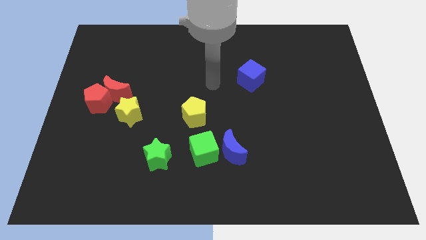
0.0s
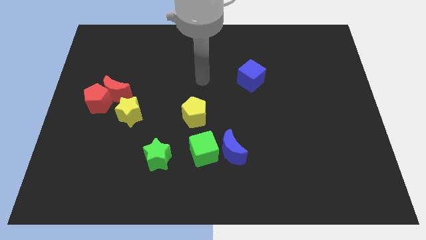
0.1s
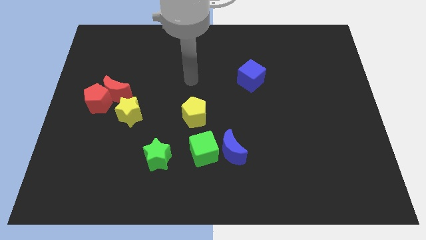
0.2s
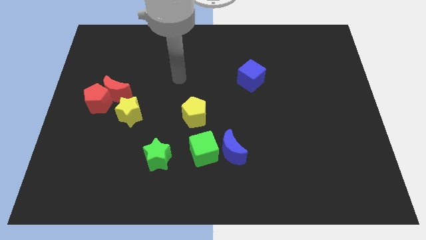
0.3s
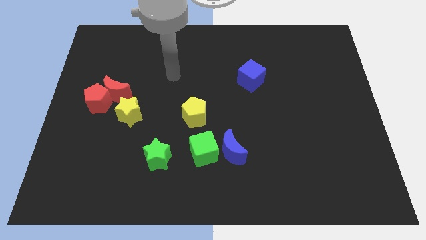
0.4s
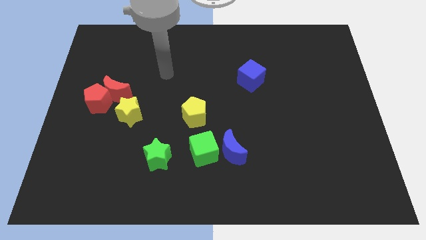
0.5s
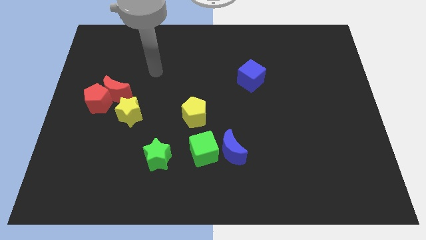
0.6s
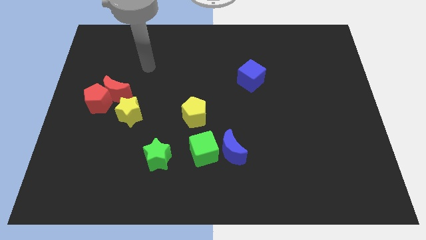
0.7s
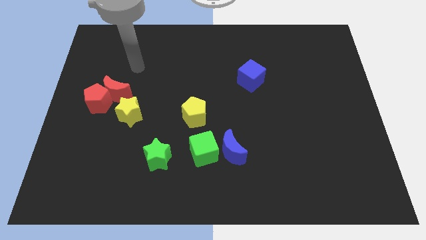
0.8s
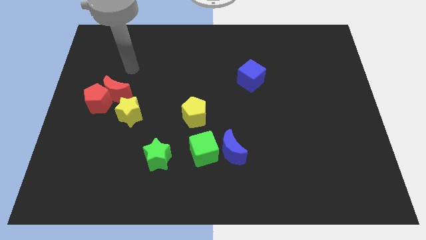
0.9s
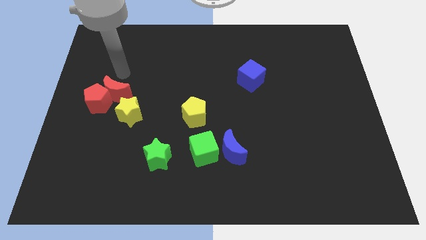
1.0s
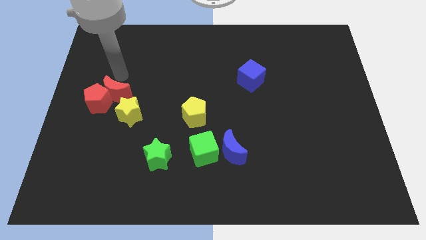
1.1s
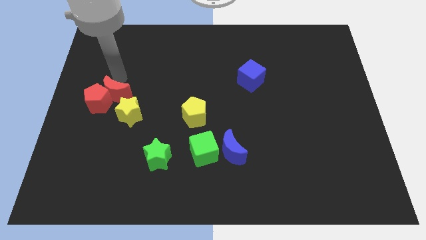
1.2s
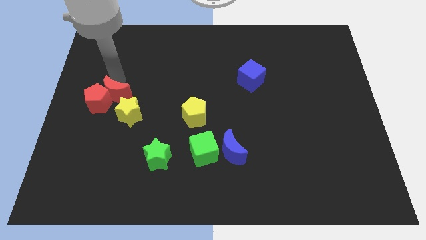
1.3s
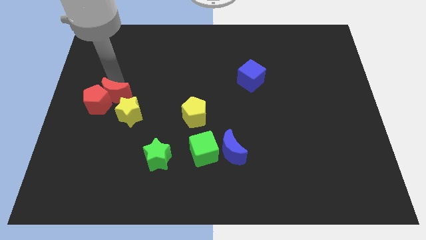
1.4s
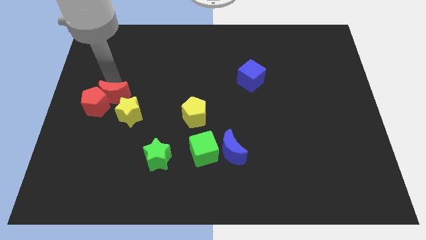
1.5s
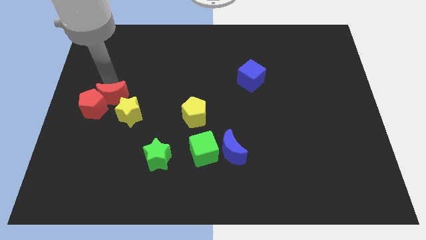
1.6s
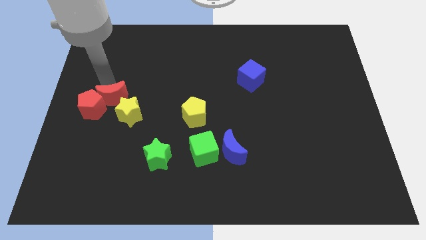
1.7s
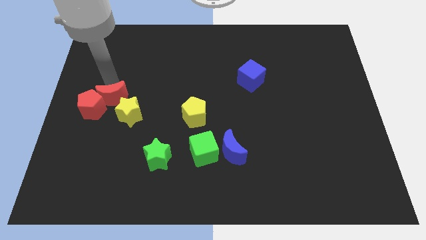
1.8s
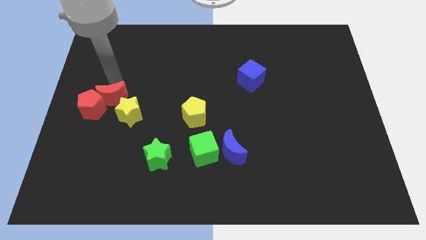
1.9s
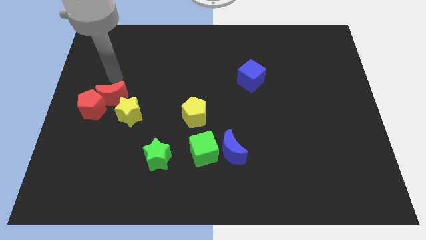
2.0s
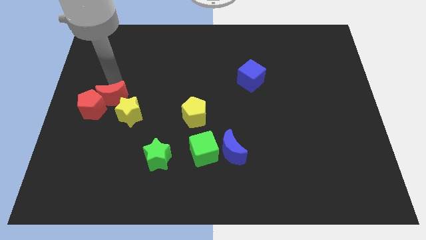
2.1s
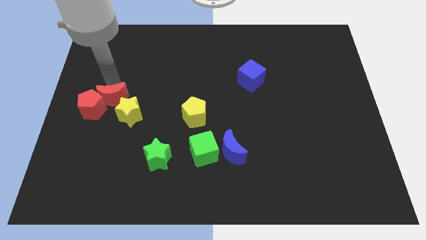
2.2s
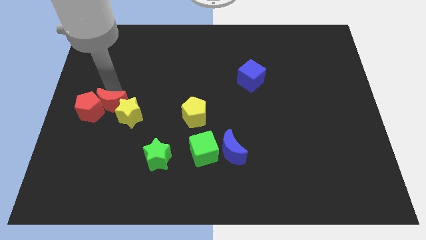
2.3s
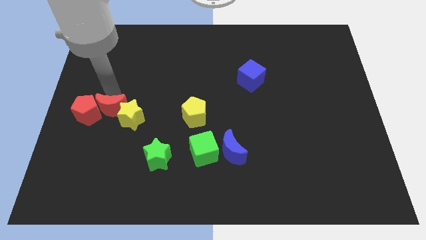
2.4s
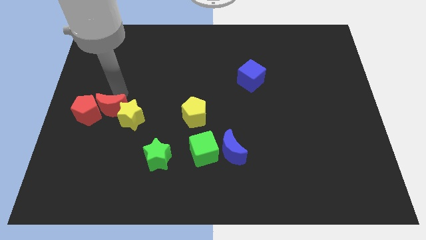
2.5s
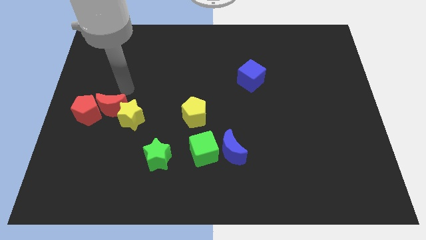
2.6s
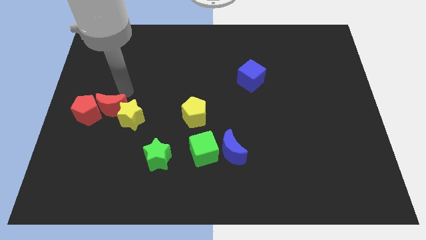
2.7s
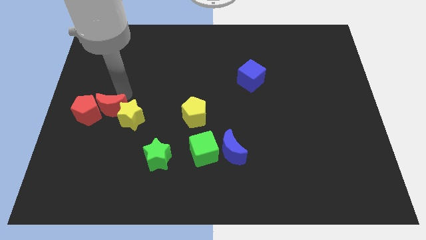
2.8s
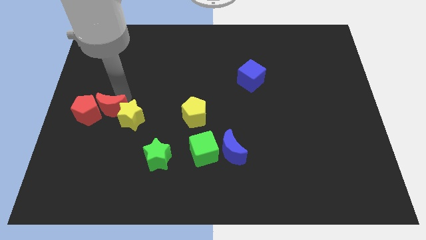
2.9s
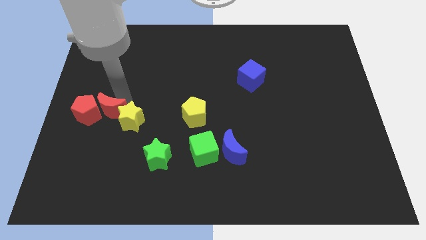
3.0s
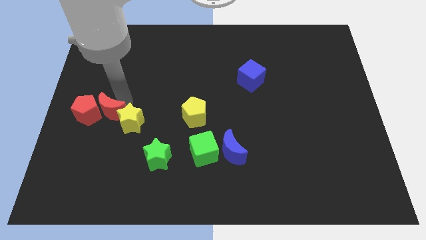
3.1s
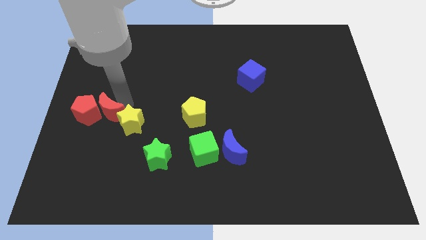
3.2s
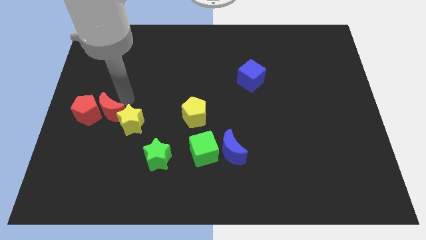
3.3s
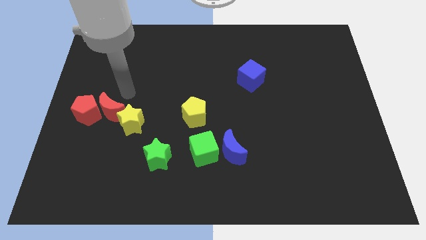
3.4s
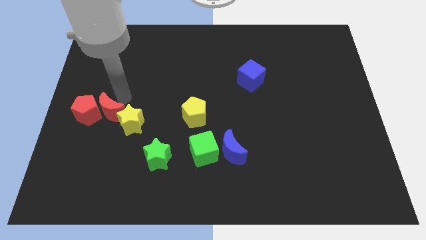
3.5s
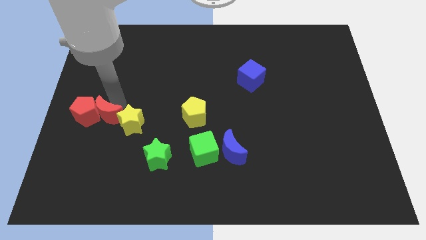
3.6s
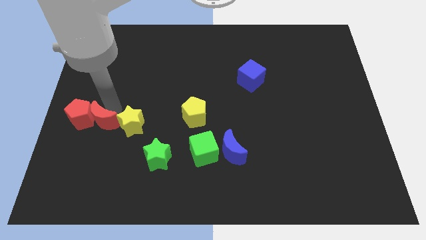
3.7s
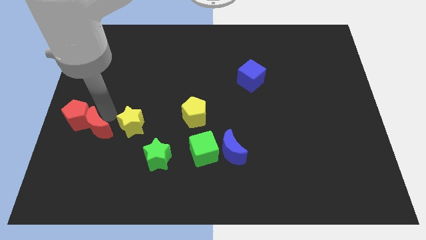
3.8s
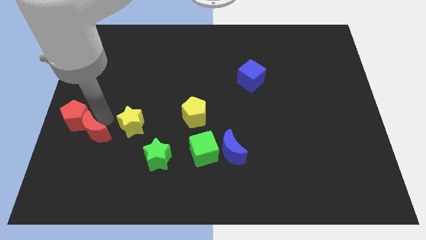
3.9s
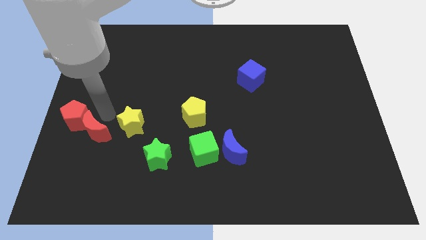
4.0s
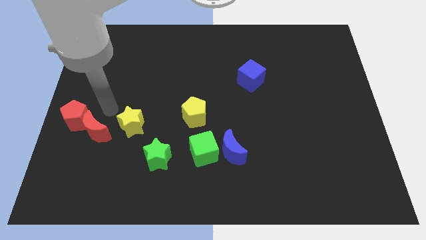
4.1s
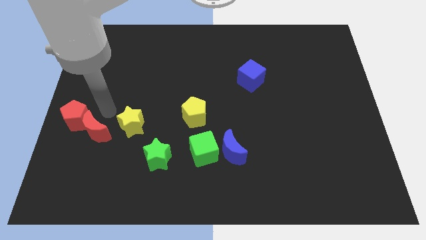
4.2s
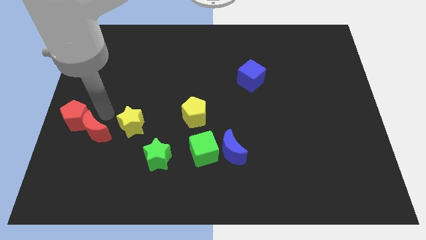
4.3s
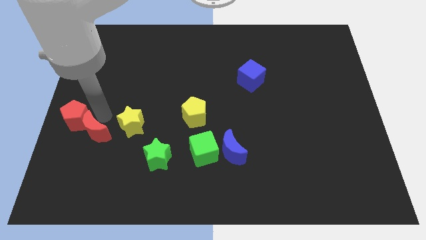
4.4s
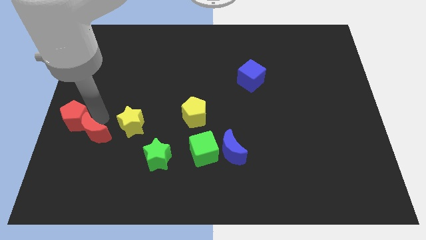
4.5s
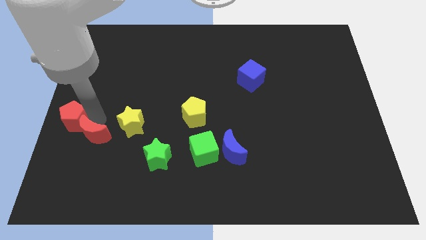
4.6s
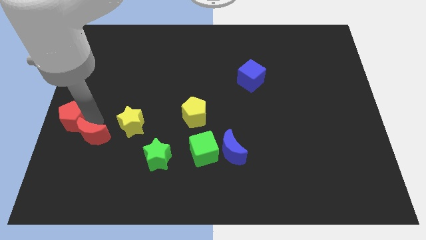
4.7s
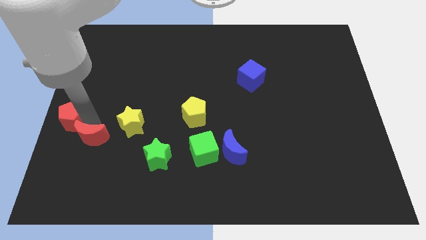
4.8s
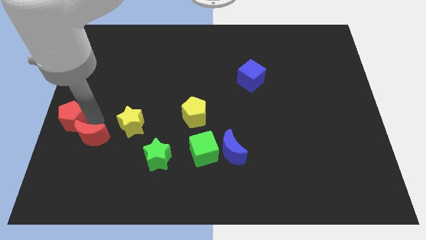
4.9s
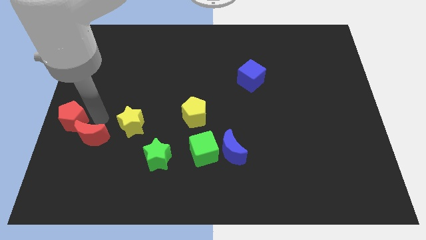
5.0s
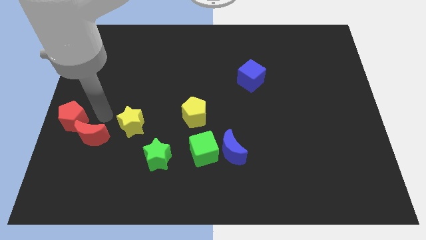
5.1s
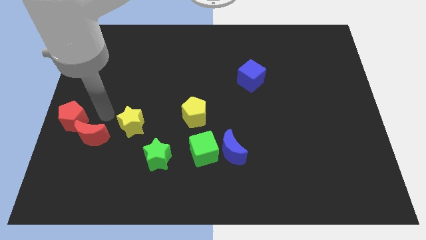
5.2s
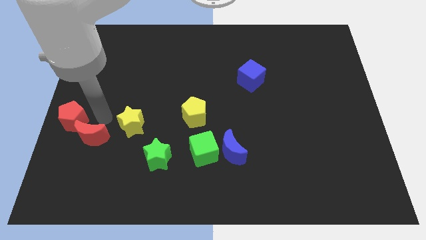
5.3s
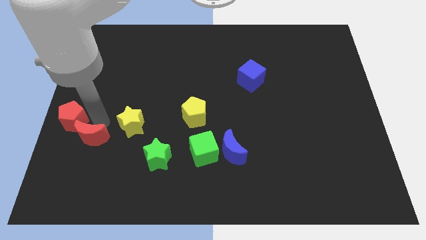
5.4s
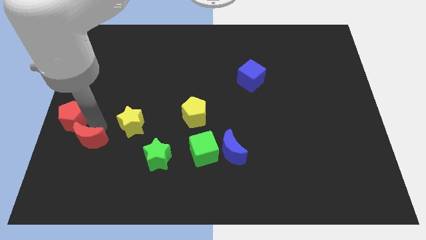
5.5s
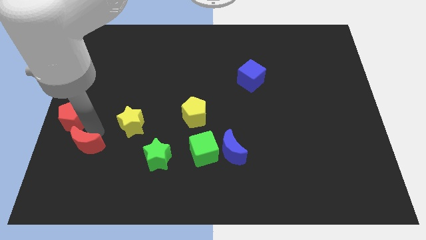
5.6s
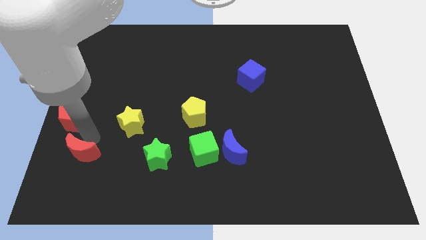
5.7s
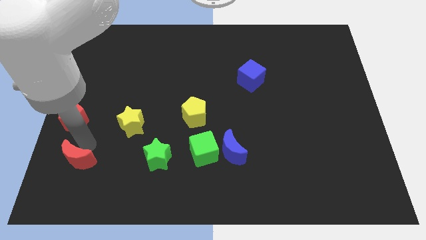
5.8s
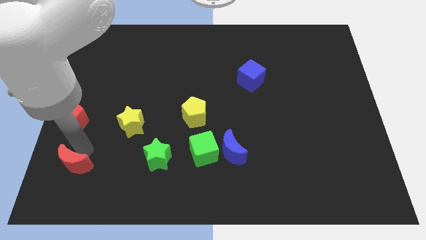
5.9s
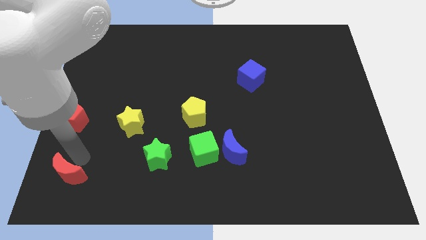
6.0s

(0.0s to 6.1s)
push the red moon to the bottom left corner
